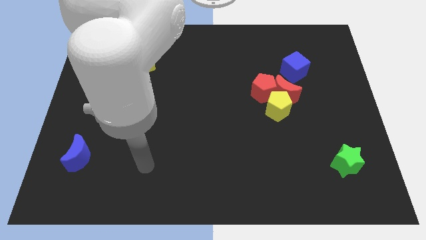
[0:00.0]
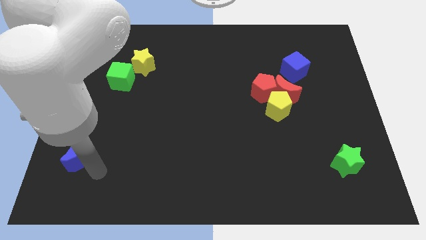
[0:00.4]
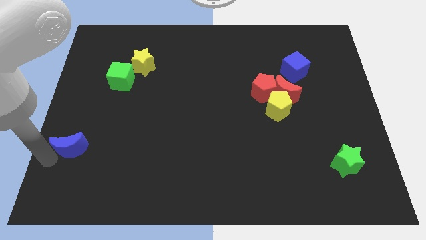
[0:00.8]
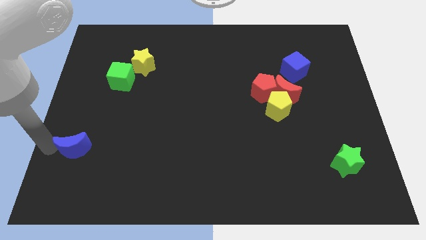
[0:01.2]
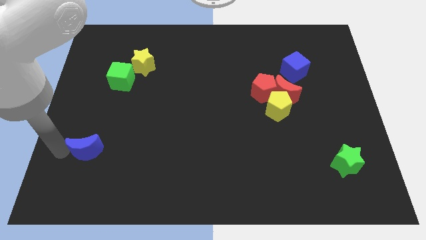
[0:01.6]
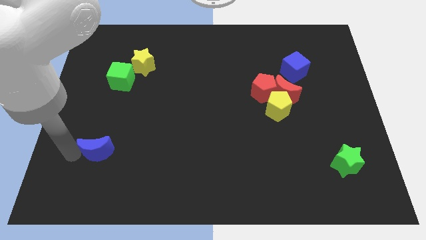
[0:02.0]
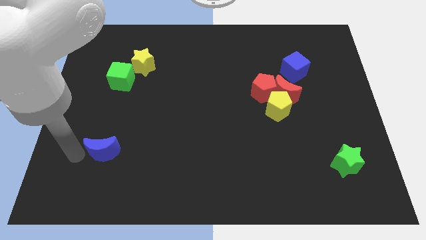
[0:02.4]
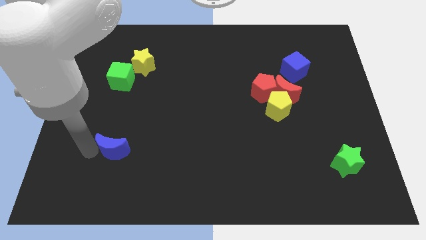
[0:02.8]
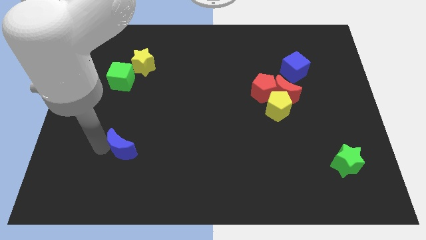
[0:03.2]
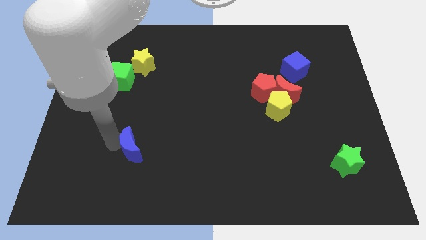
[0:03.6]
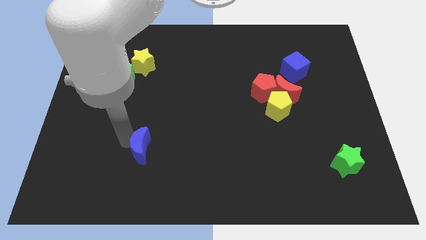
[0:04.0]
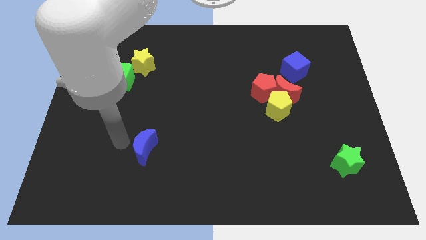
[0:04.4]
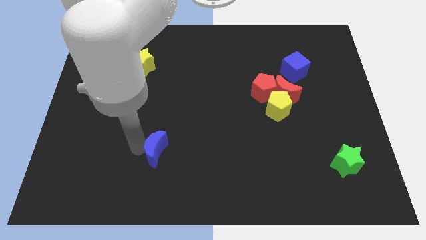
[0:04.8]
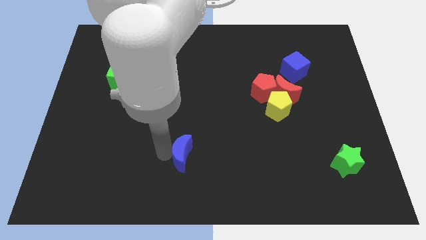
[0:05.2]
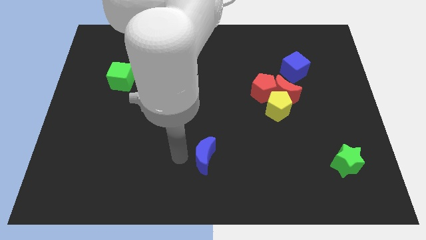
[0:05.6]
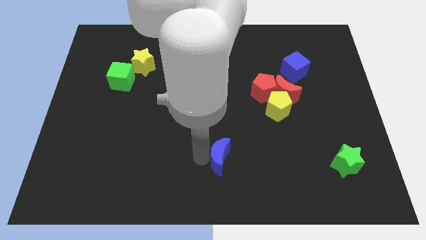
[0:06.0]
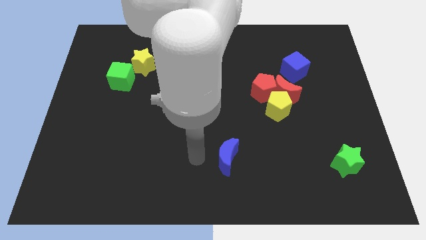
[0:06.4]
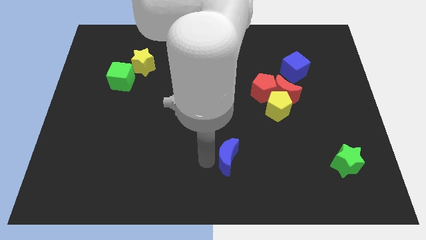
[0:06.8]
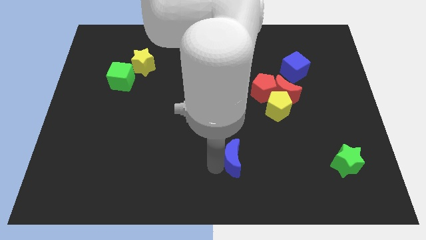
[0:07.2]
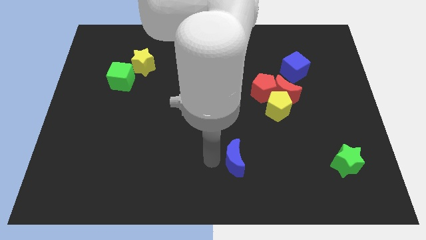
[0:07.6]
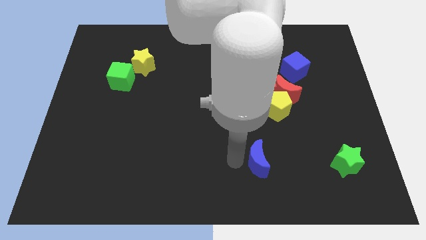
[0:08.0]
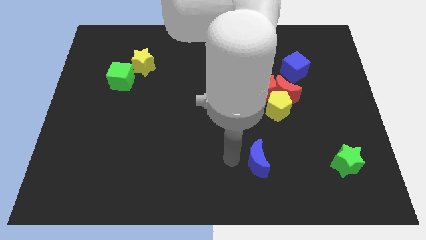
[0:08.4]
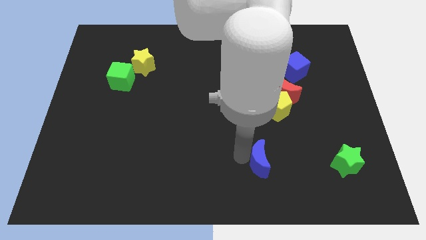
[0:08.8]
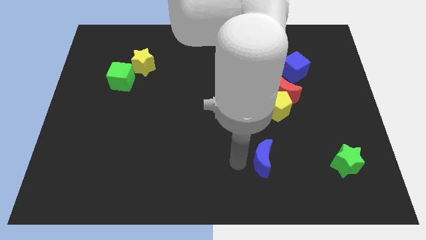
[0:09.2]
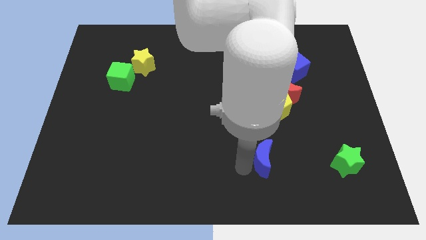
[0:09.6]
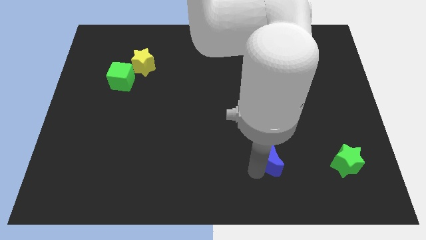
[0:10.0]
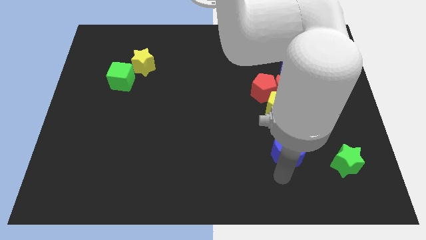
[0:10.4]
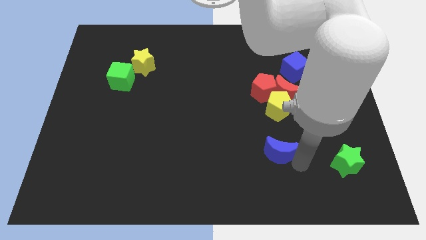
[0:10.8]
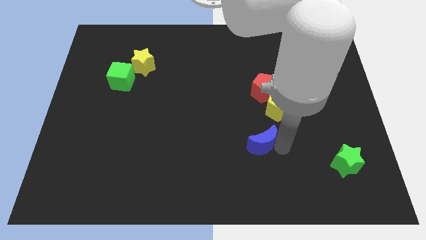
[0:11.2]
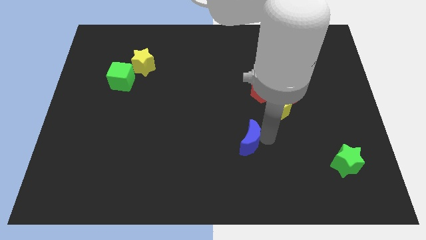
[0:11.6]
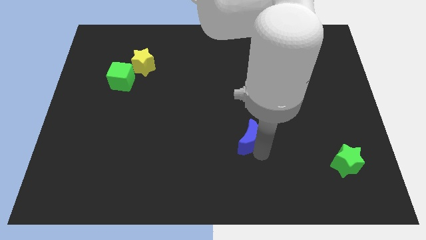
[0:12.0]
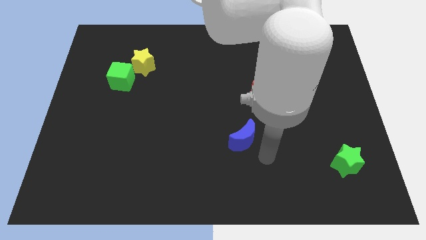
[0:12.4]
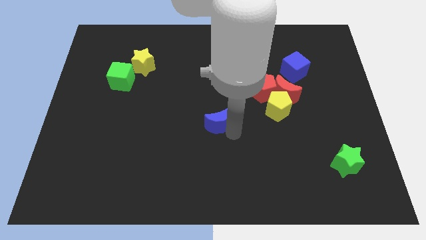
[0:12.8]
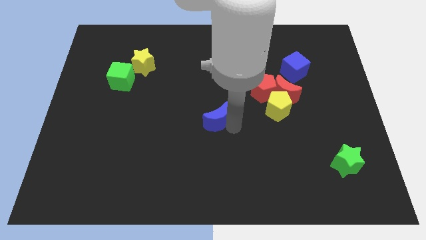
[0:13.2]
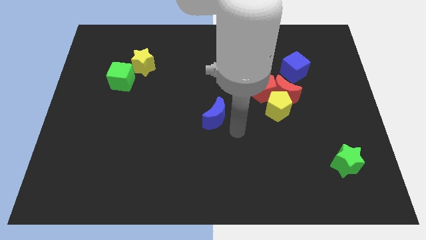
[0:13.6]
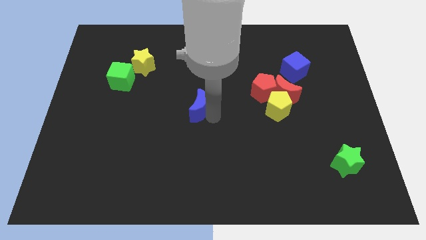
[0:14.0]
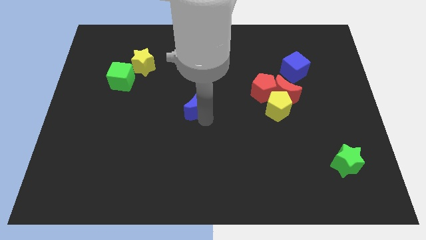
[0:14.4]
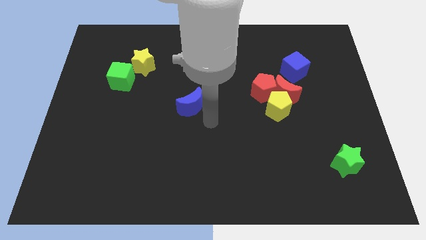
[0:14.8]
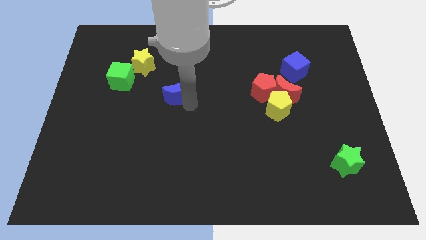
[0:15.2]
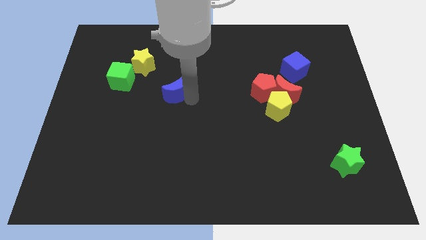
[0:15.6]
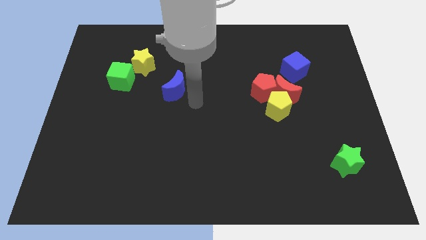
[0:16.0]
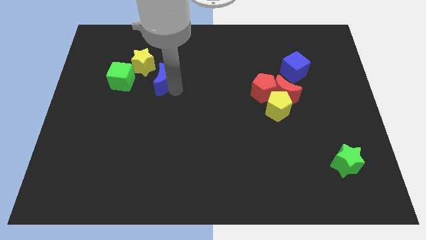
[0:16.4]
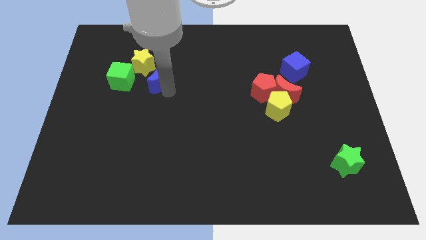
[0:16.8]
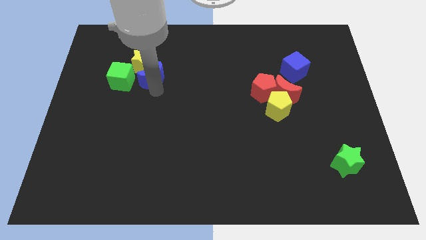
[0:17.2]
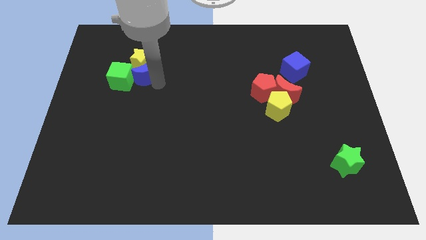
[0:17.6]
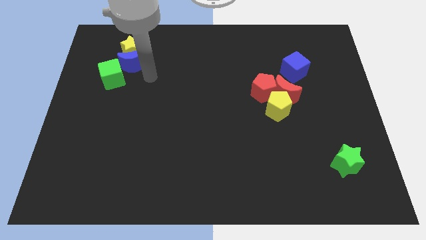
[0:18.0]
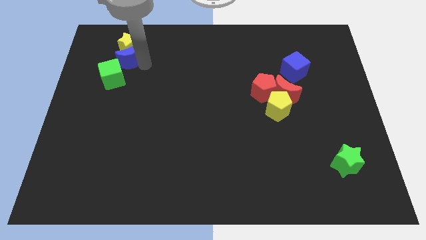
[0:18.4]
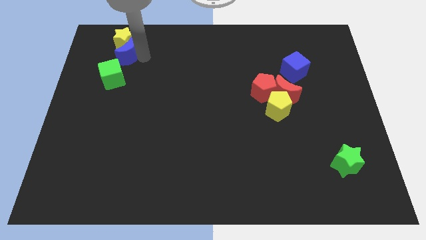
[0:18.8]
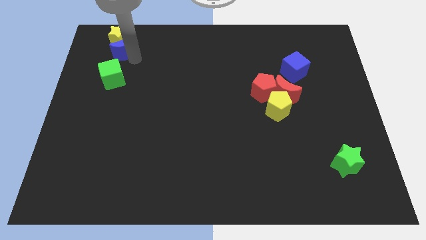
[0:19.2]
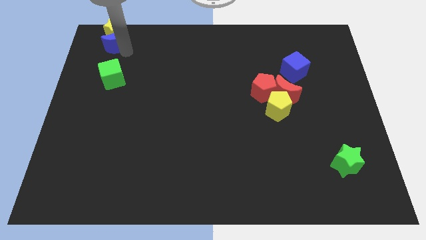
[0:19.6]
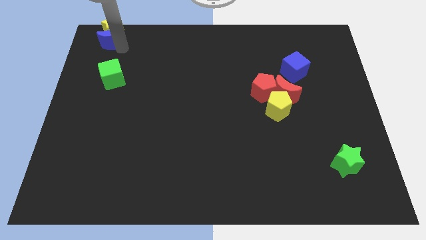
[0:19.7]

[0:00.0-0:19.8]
put the blue moon to the top left of the board

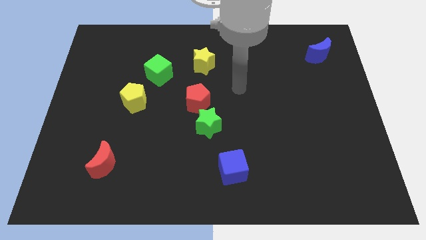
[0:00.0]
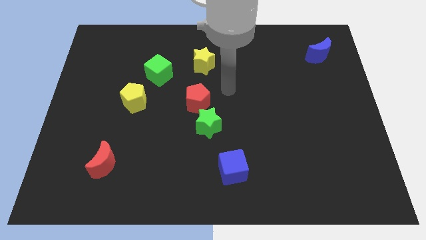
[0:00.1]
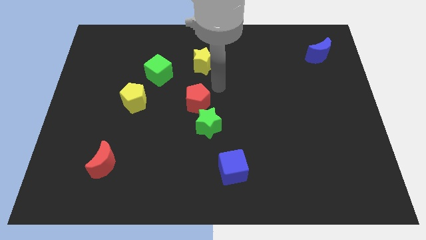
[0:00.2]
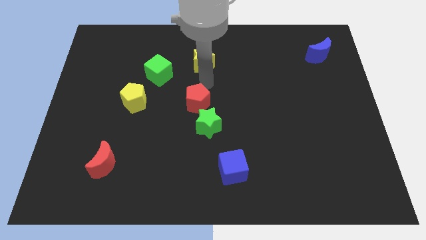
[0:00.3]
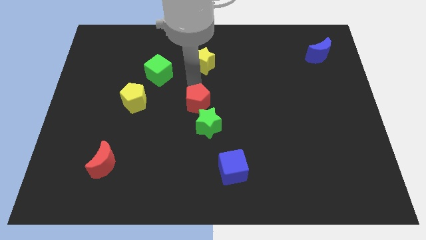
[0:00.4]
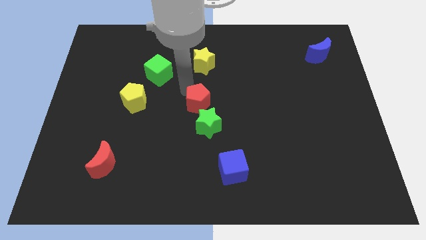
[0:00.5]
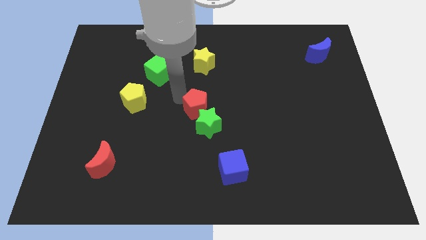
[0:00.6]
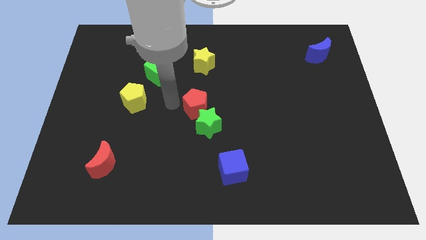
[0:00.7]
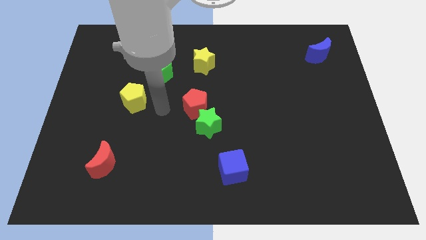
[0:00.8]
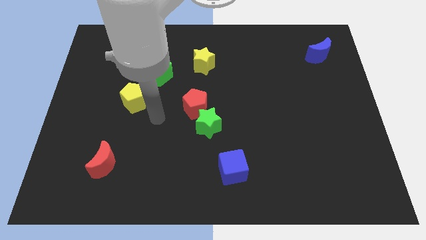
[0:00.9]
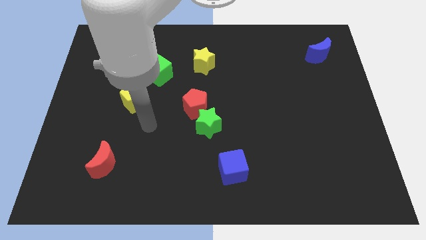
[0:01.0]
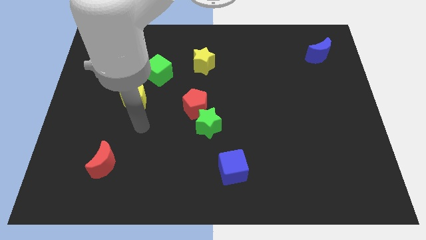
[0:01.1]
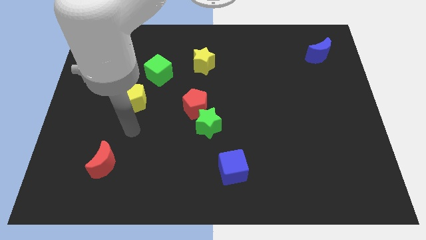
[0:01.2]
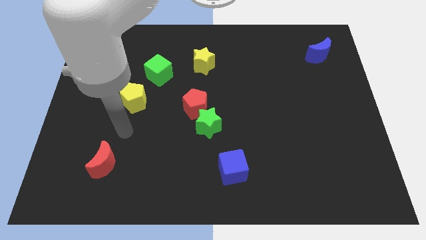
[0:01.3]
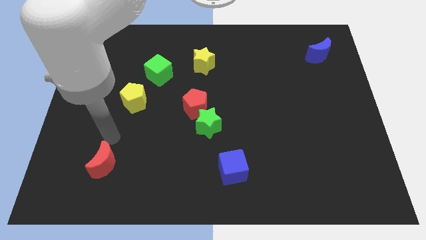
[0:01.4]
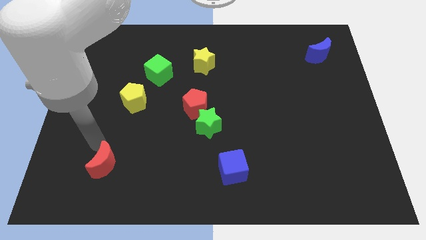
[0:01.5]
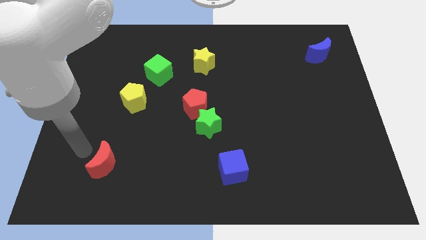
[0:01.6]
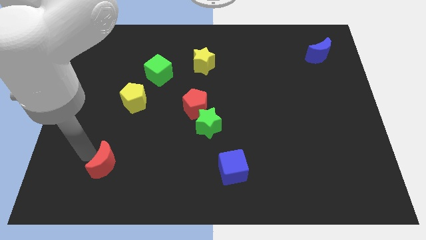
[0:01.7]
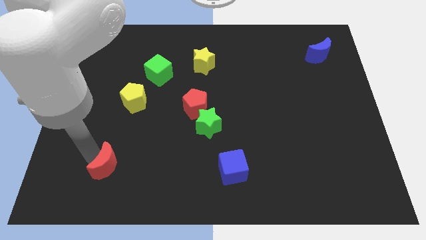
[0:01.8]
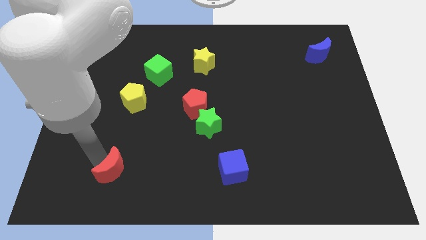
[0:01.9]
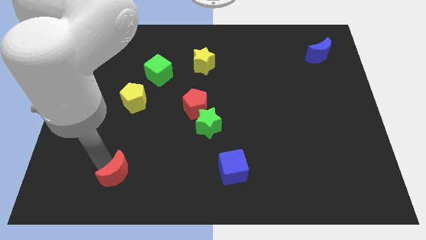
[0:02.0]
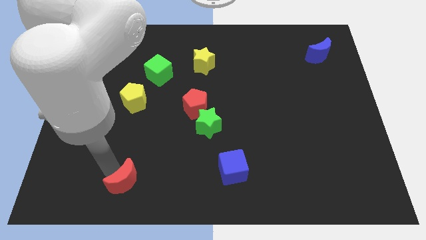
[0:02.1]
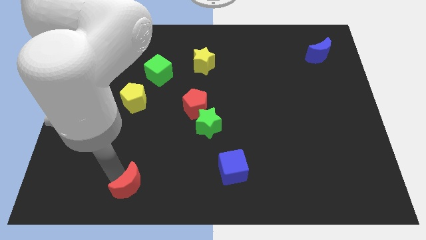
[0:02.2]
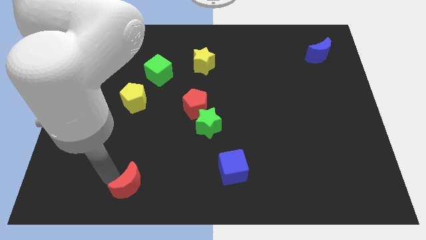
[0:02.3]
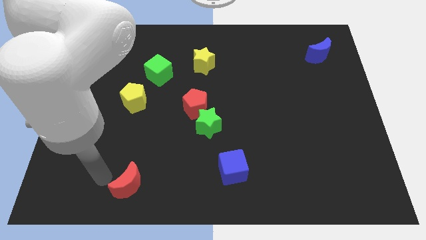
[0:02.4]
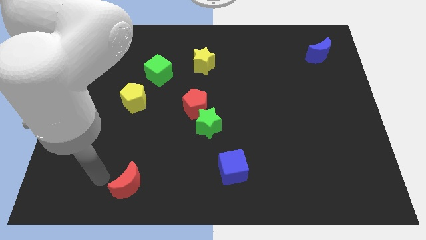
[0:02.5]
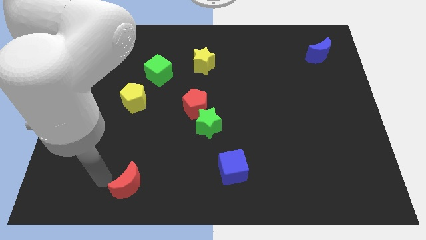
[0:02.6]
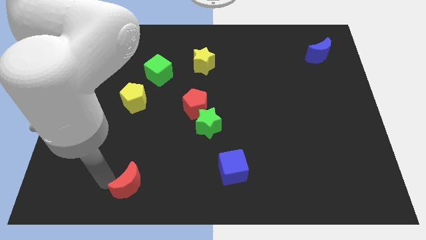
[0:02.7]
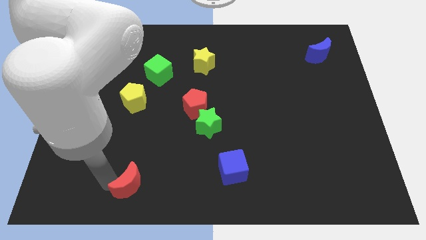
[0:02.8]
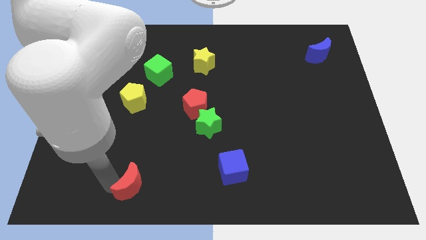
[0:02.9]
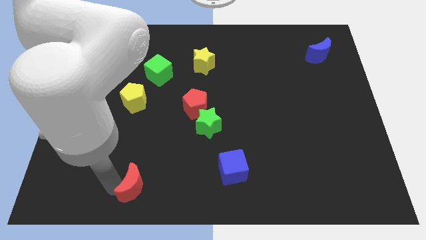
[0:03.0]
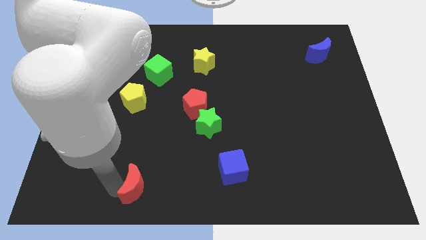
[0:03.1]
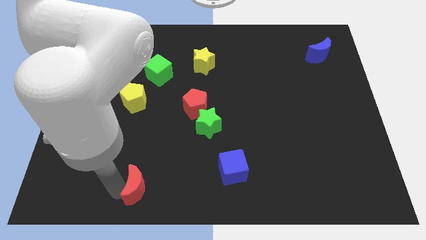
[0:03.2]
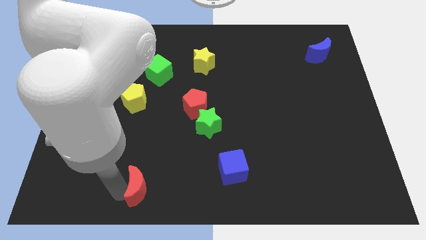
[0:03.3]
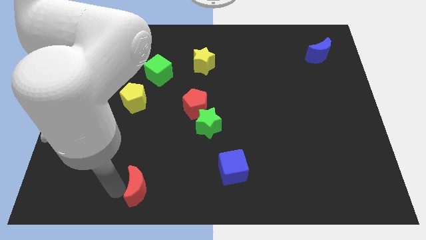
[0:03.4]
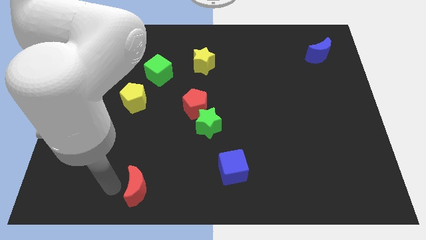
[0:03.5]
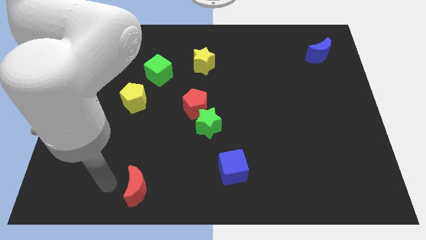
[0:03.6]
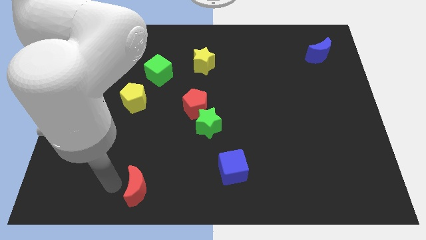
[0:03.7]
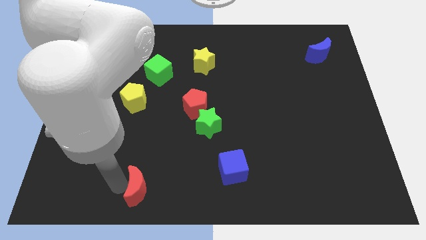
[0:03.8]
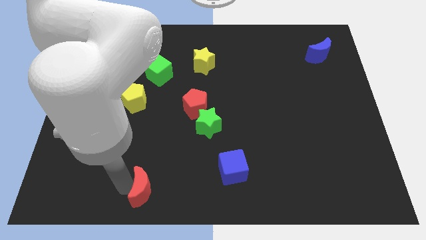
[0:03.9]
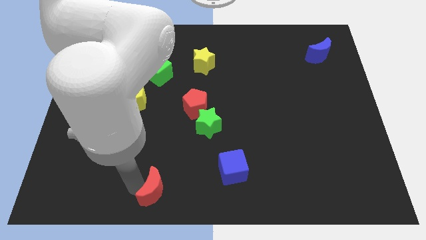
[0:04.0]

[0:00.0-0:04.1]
move the red moon to the bottom
